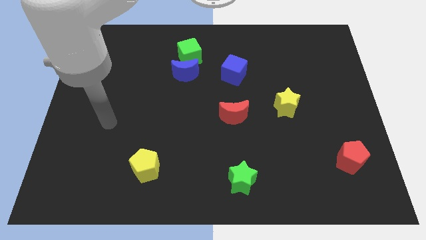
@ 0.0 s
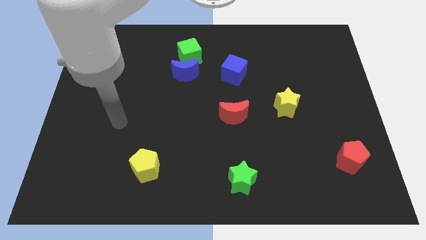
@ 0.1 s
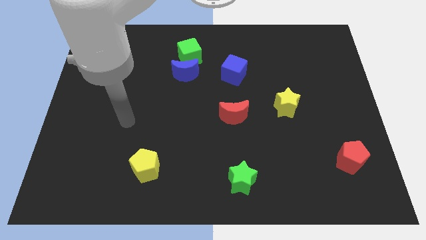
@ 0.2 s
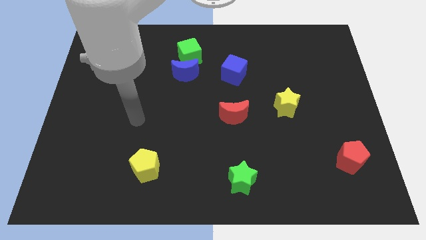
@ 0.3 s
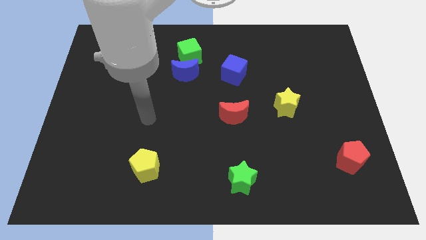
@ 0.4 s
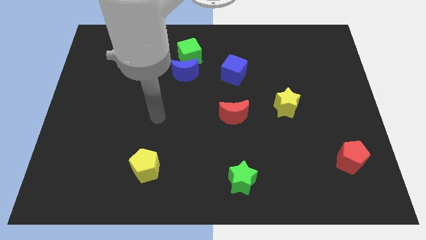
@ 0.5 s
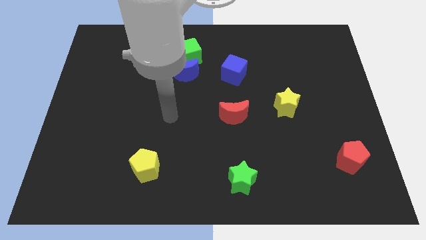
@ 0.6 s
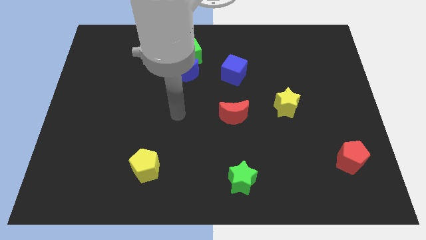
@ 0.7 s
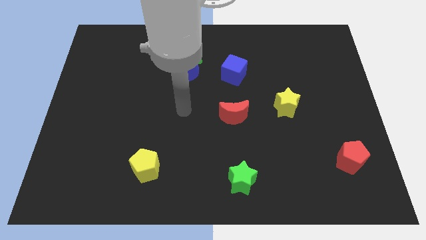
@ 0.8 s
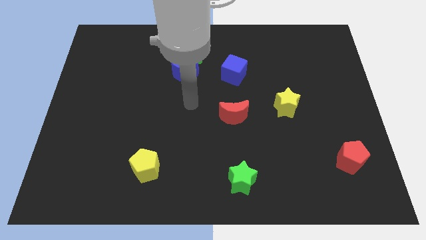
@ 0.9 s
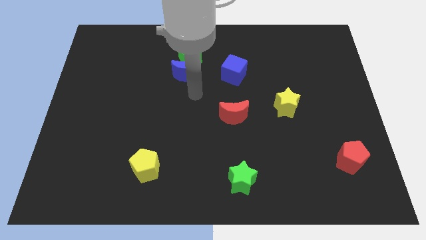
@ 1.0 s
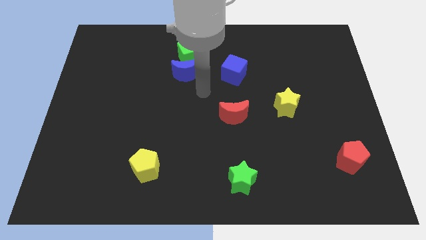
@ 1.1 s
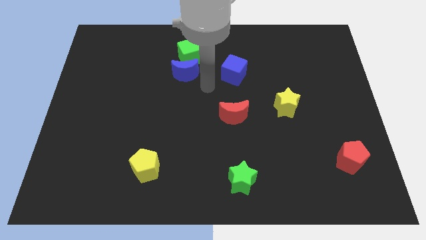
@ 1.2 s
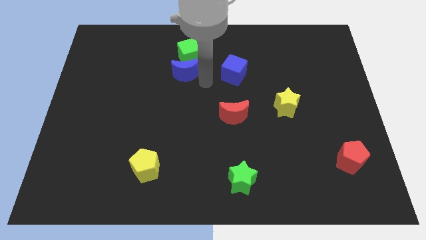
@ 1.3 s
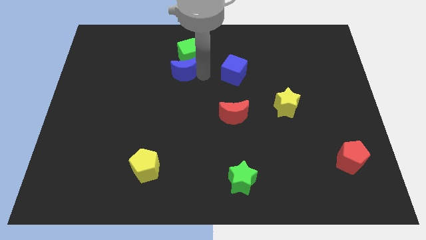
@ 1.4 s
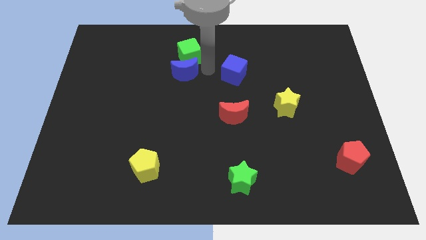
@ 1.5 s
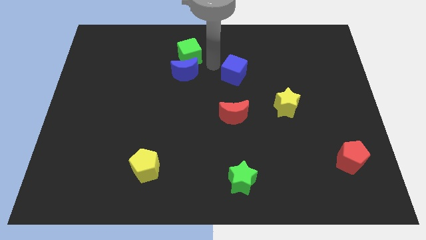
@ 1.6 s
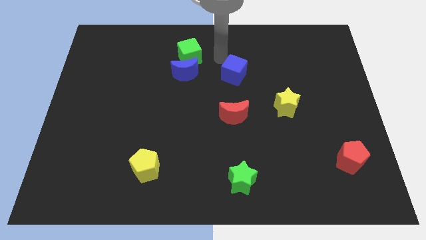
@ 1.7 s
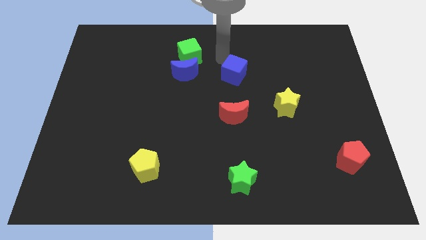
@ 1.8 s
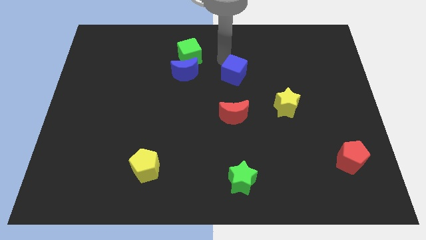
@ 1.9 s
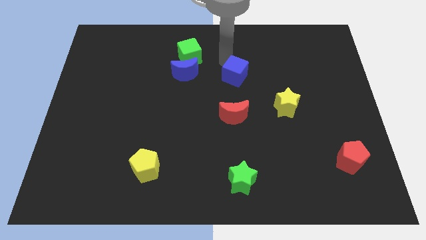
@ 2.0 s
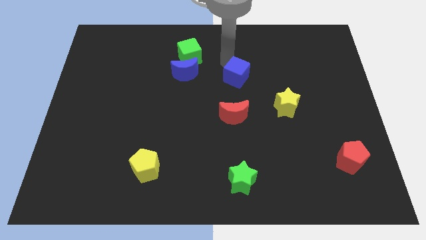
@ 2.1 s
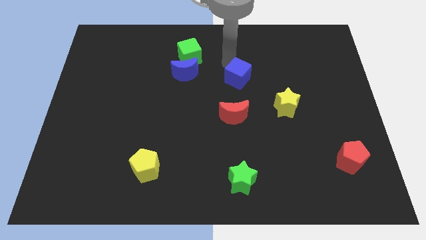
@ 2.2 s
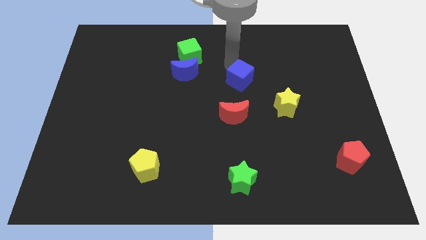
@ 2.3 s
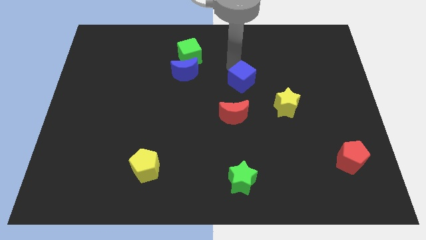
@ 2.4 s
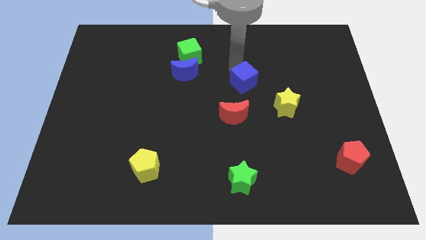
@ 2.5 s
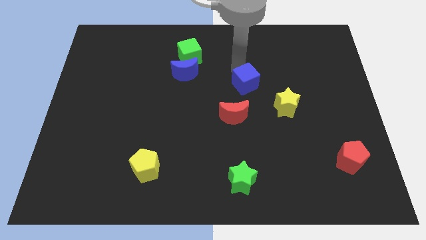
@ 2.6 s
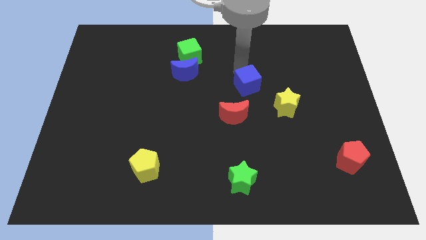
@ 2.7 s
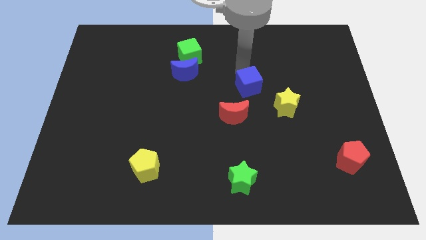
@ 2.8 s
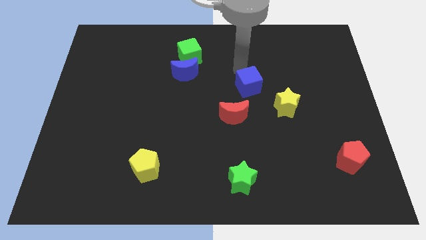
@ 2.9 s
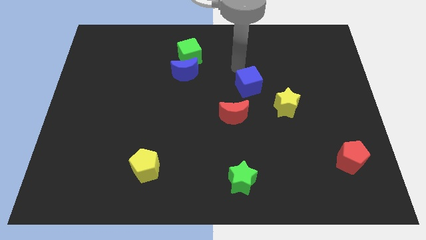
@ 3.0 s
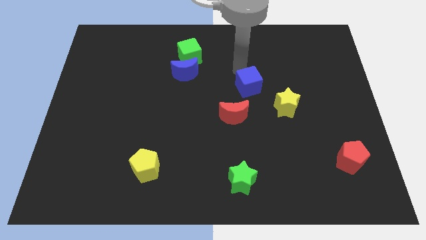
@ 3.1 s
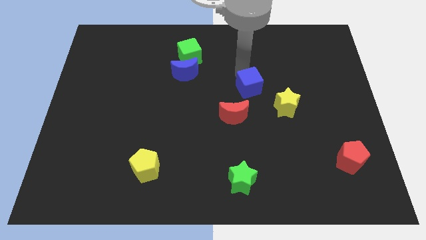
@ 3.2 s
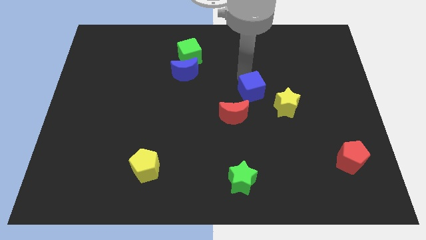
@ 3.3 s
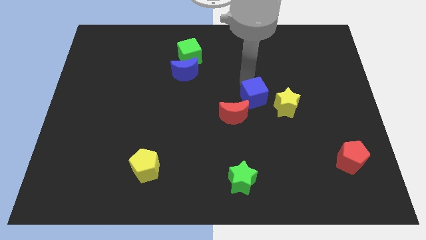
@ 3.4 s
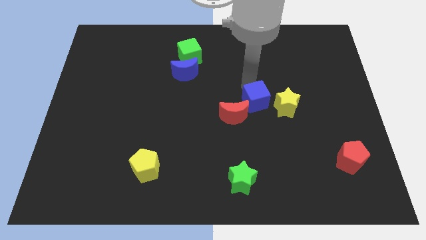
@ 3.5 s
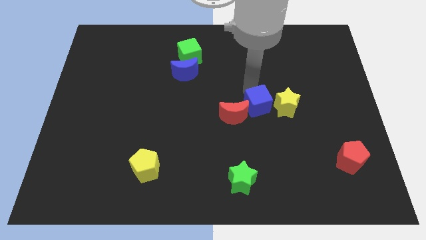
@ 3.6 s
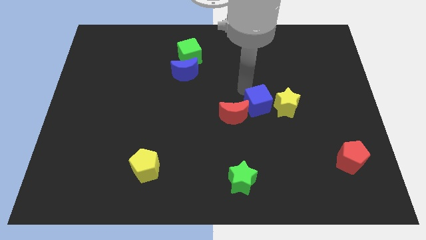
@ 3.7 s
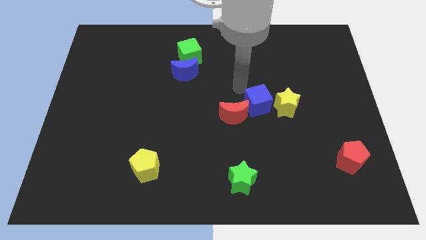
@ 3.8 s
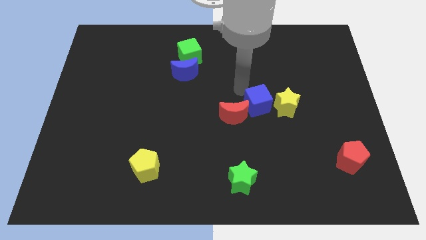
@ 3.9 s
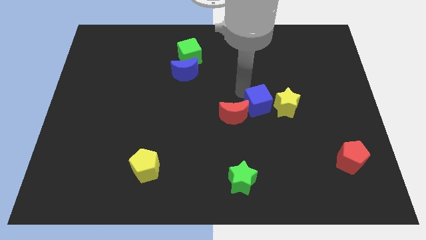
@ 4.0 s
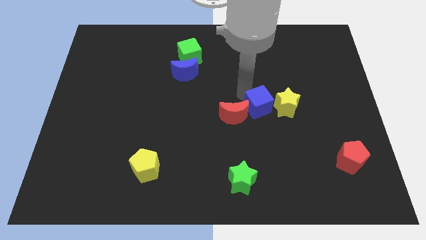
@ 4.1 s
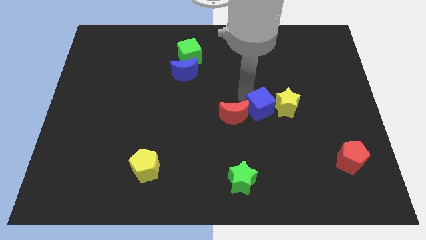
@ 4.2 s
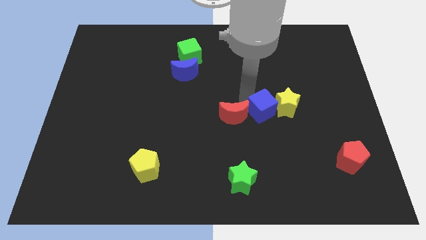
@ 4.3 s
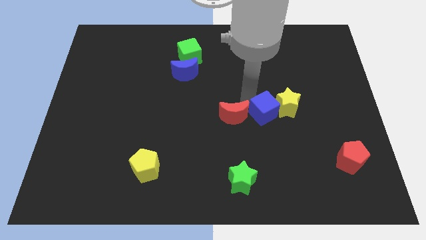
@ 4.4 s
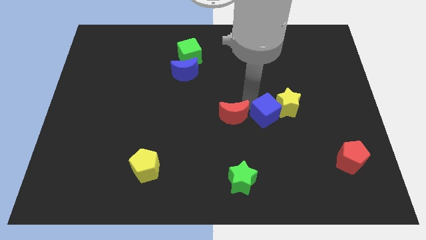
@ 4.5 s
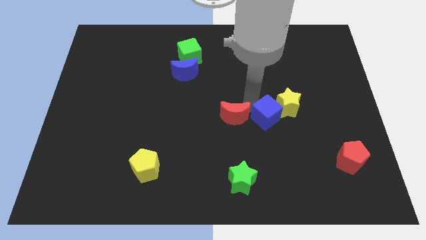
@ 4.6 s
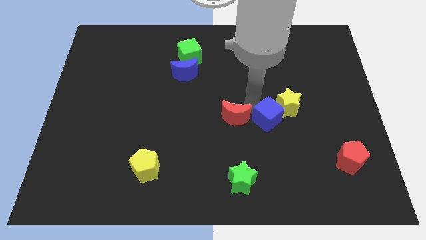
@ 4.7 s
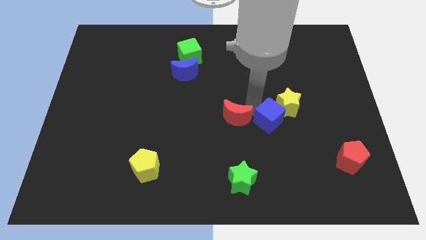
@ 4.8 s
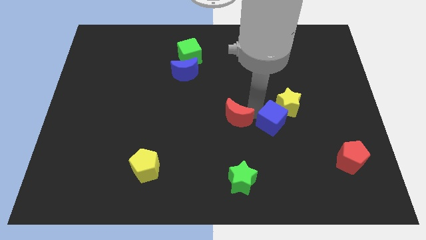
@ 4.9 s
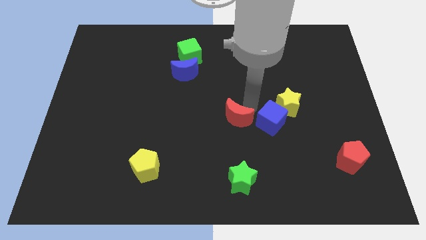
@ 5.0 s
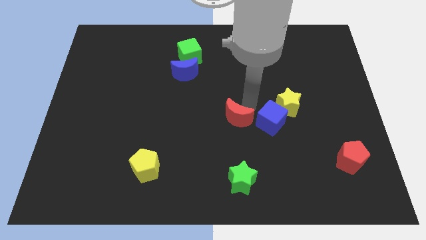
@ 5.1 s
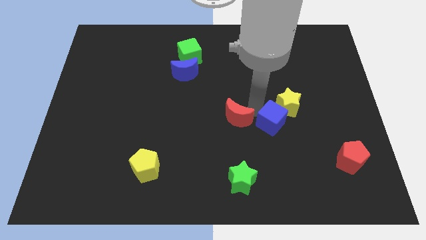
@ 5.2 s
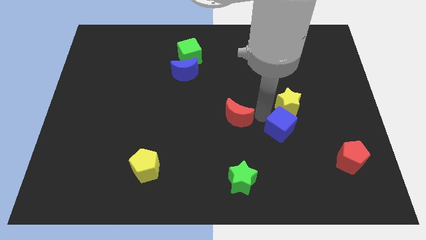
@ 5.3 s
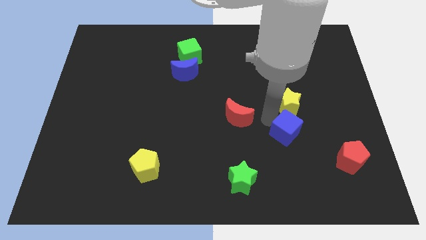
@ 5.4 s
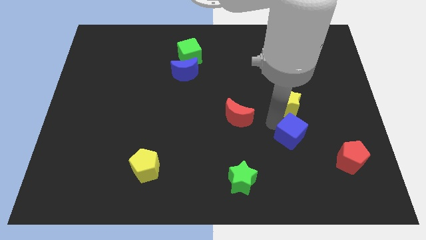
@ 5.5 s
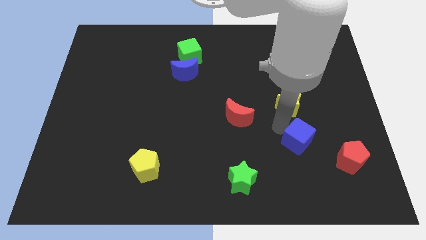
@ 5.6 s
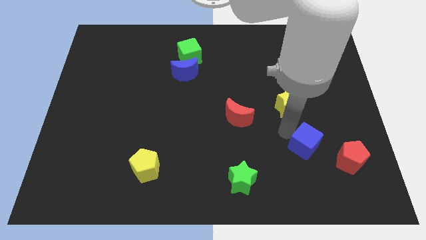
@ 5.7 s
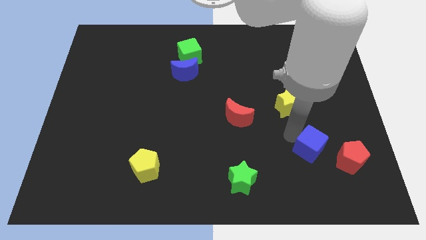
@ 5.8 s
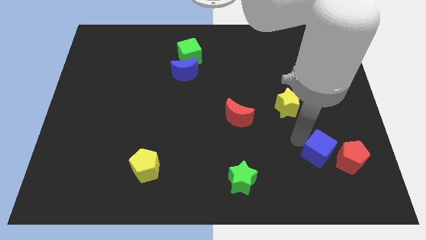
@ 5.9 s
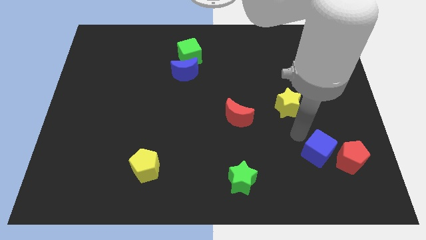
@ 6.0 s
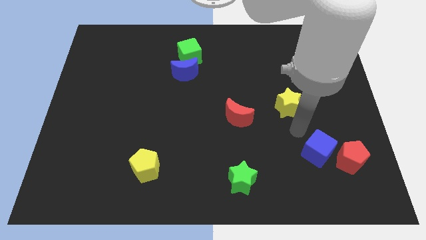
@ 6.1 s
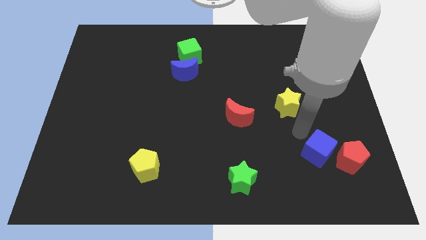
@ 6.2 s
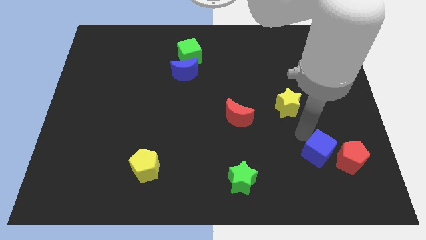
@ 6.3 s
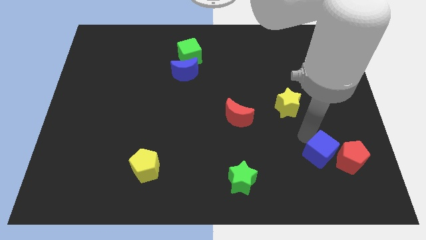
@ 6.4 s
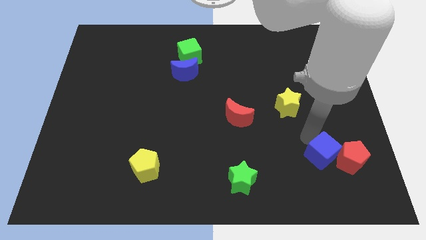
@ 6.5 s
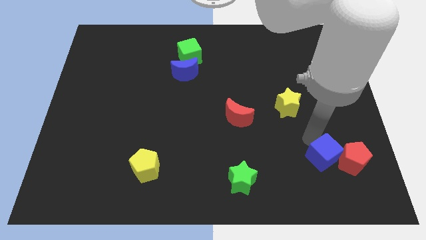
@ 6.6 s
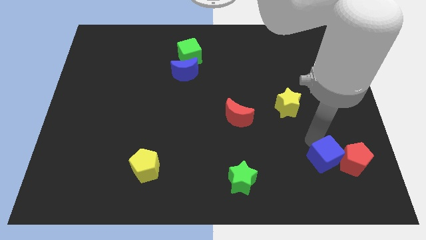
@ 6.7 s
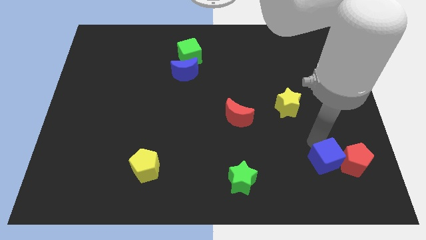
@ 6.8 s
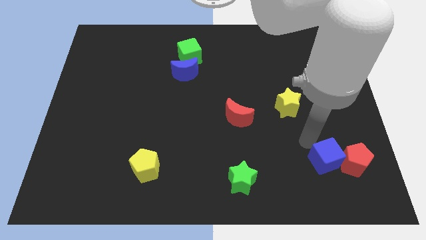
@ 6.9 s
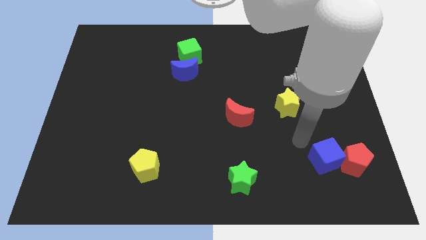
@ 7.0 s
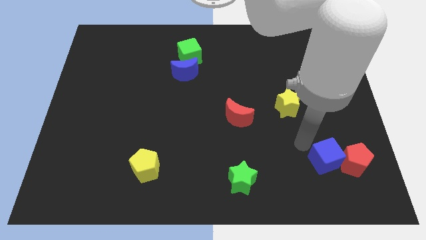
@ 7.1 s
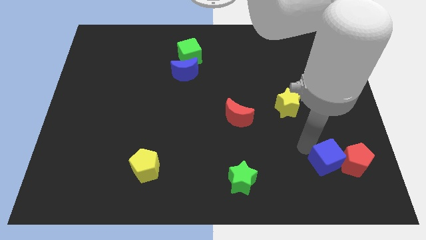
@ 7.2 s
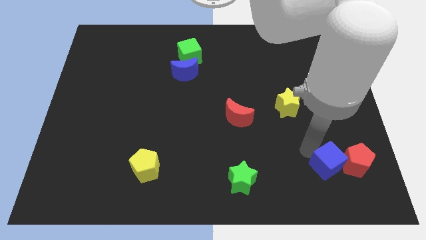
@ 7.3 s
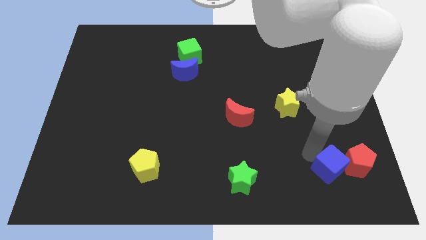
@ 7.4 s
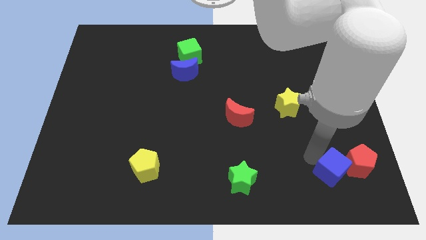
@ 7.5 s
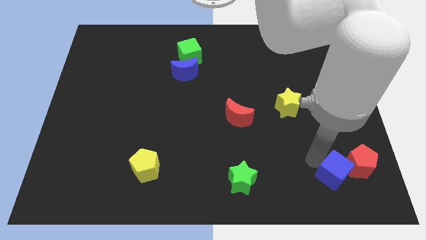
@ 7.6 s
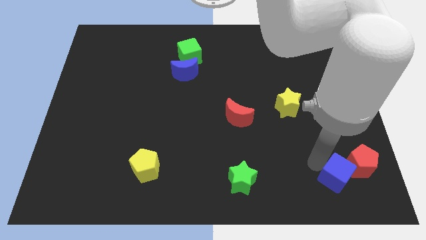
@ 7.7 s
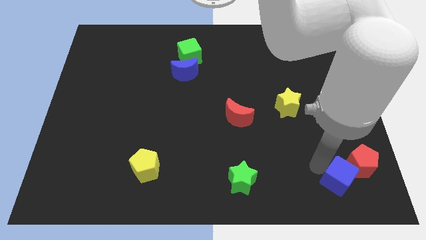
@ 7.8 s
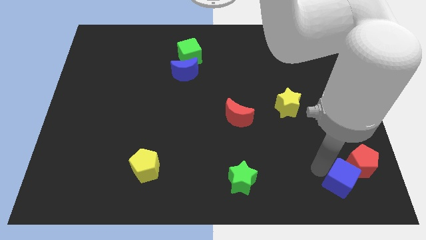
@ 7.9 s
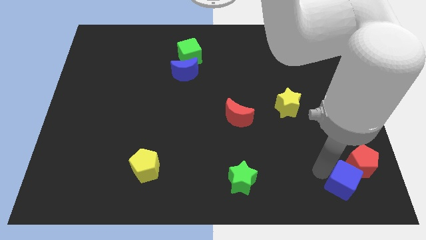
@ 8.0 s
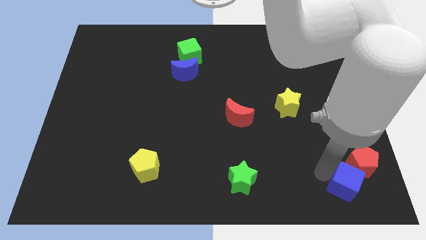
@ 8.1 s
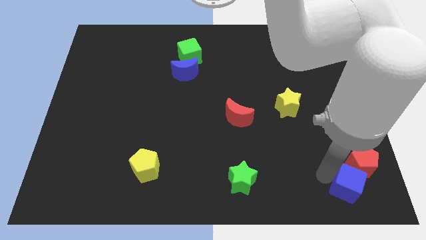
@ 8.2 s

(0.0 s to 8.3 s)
slide the blue cube to the lower right corner
